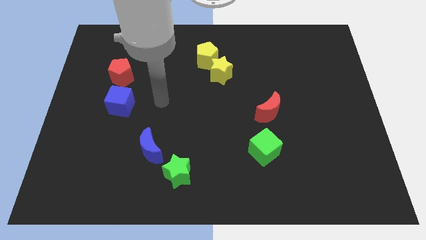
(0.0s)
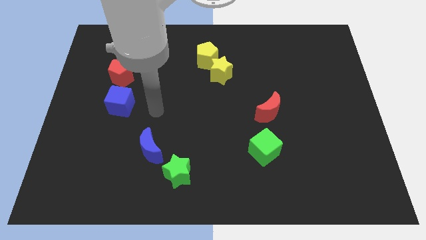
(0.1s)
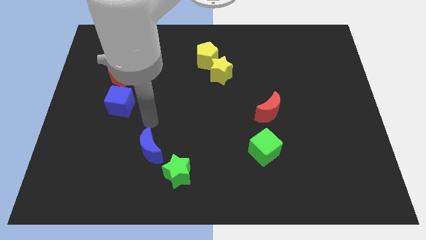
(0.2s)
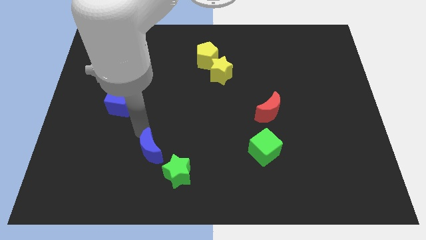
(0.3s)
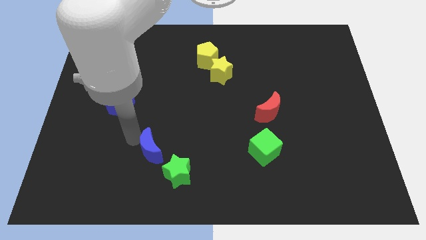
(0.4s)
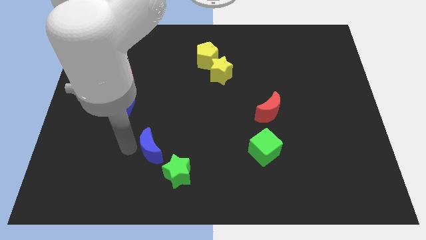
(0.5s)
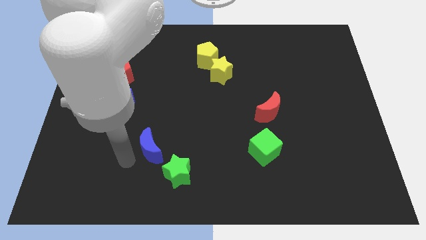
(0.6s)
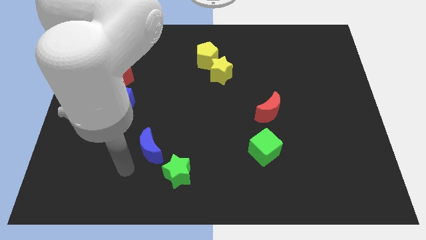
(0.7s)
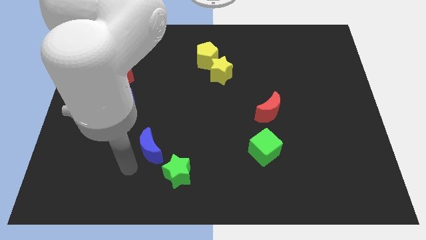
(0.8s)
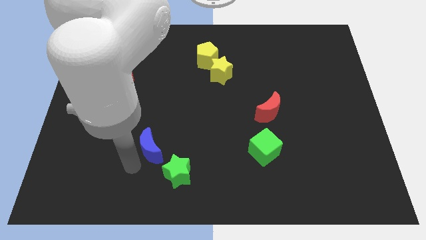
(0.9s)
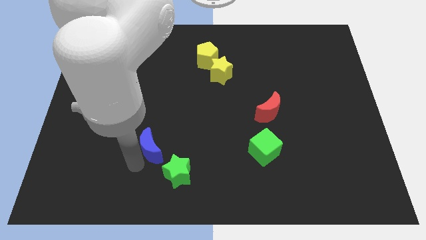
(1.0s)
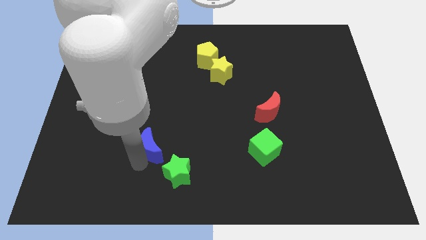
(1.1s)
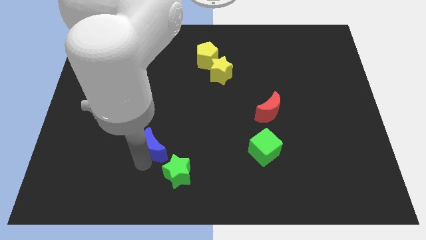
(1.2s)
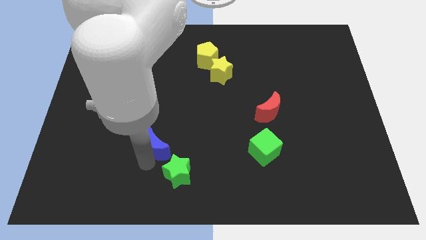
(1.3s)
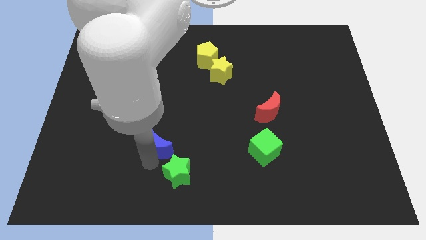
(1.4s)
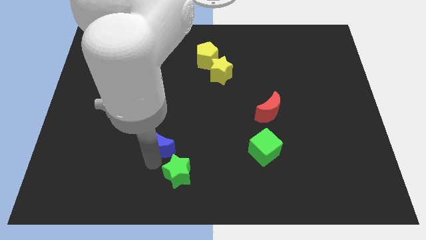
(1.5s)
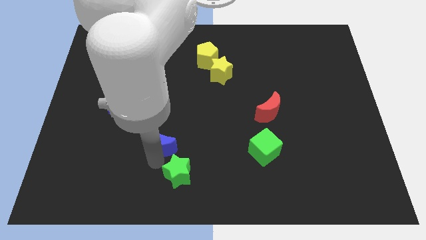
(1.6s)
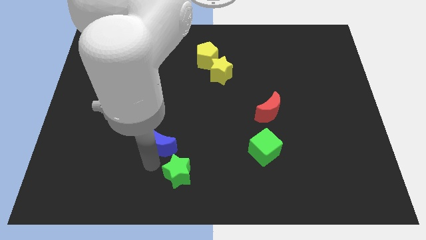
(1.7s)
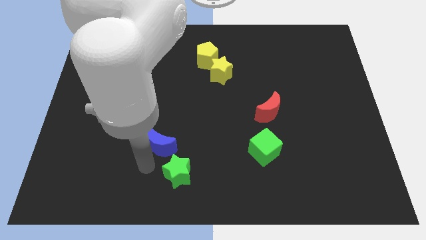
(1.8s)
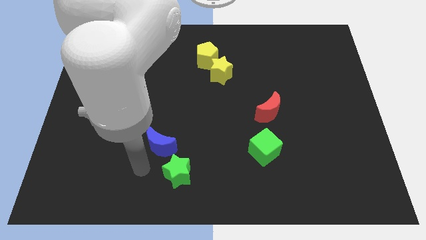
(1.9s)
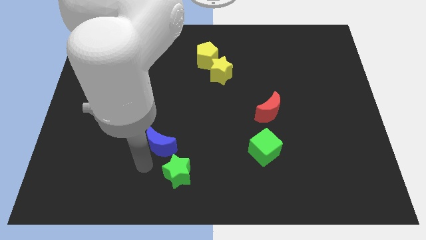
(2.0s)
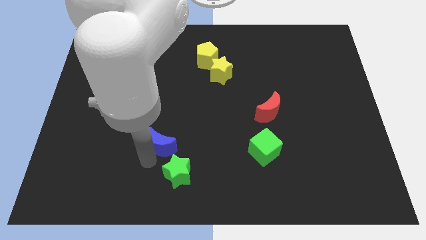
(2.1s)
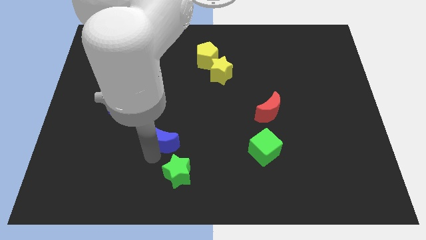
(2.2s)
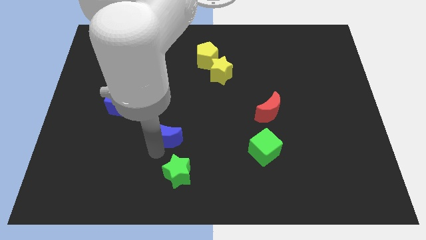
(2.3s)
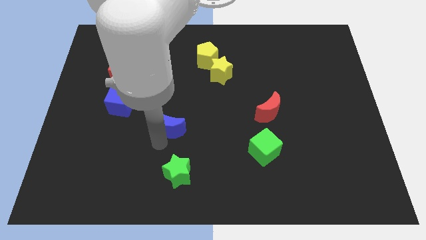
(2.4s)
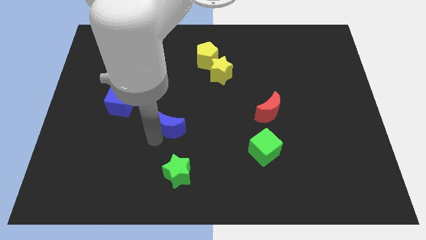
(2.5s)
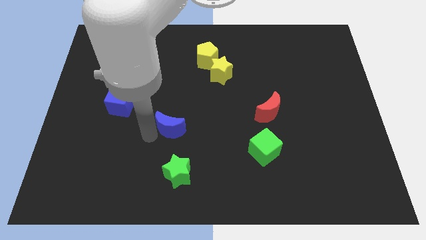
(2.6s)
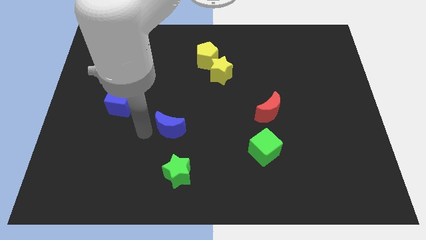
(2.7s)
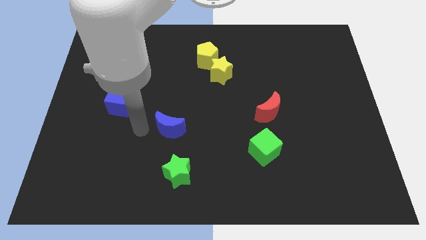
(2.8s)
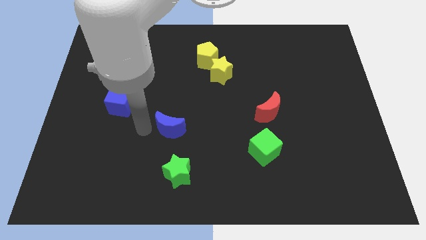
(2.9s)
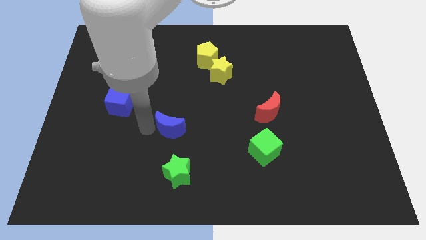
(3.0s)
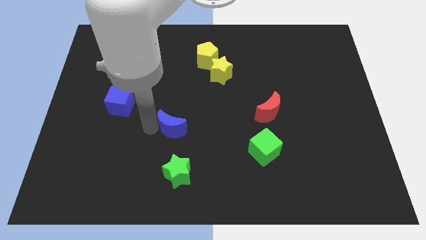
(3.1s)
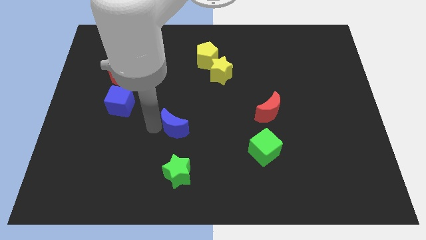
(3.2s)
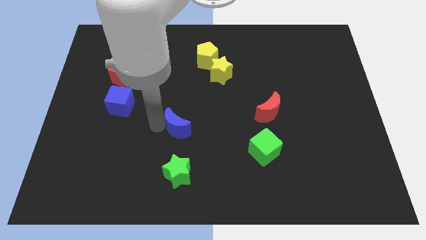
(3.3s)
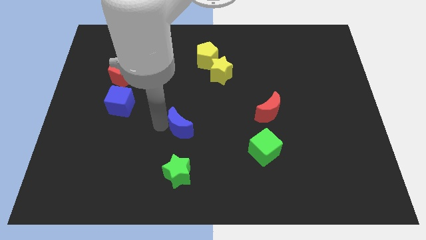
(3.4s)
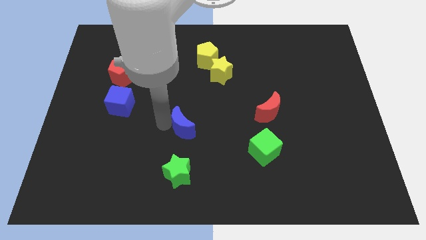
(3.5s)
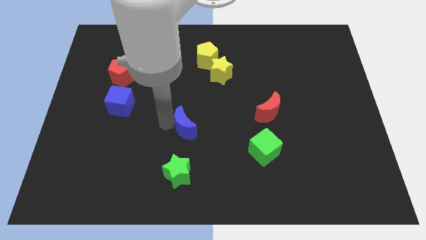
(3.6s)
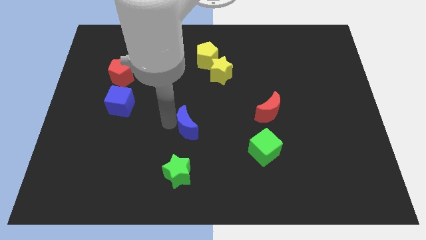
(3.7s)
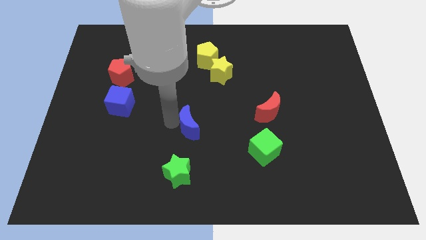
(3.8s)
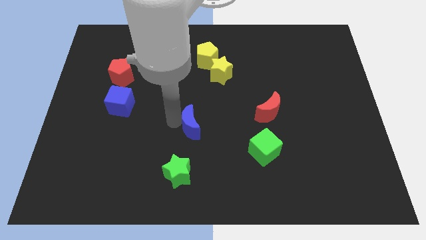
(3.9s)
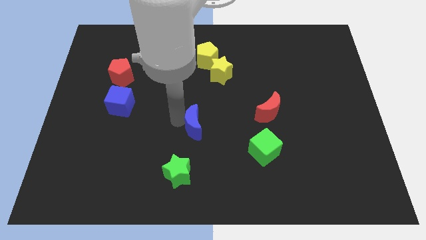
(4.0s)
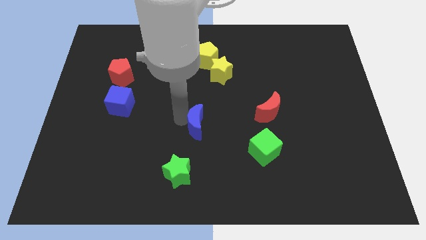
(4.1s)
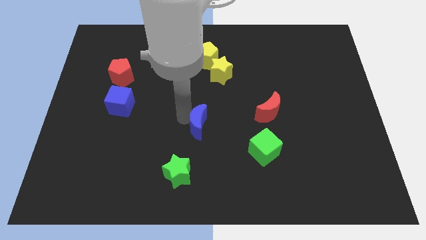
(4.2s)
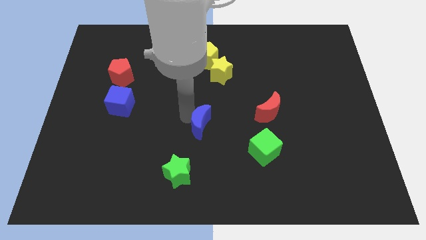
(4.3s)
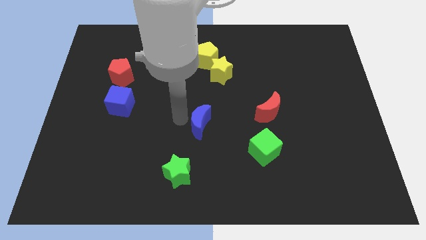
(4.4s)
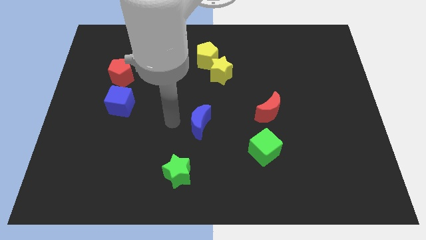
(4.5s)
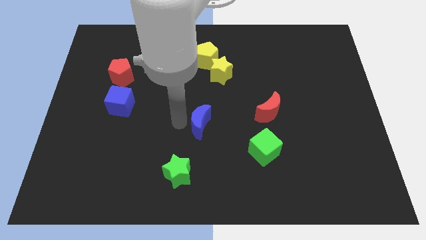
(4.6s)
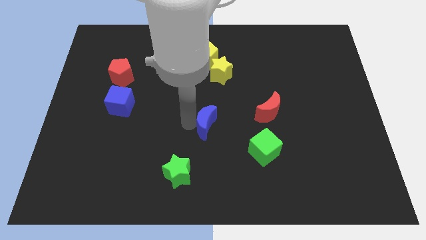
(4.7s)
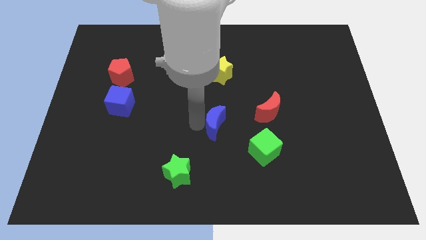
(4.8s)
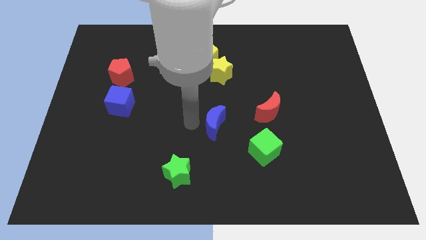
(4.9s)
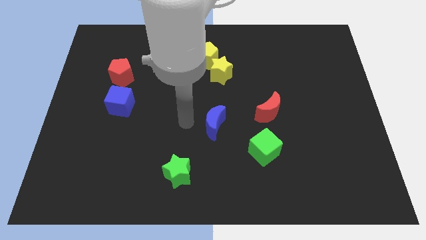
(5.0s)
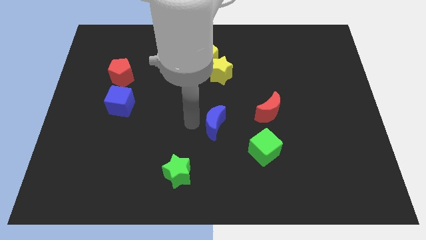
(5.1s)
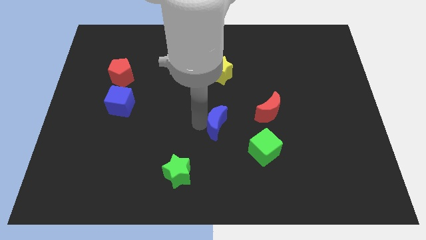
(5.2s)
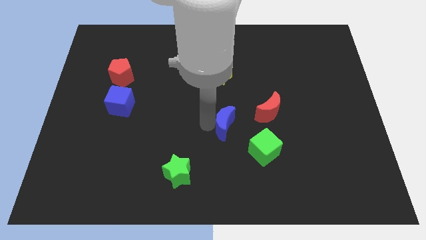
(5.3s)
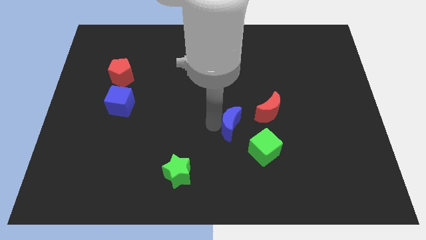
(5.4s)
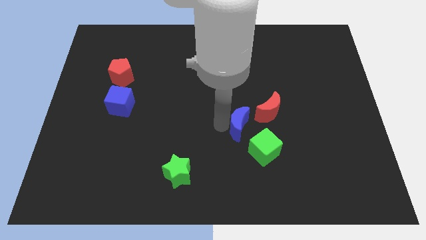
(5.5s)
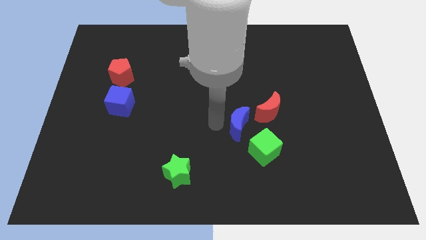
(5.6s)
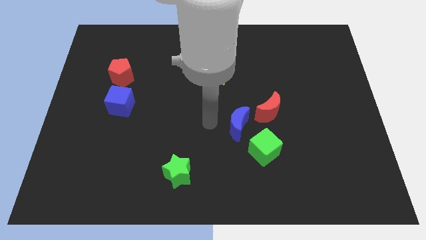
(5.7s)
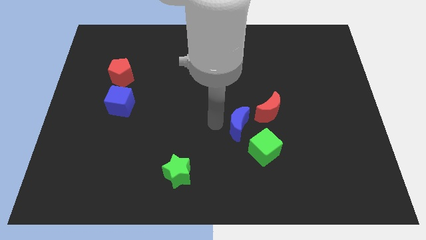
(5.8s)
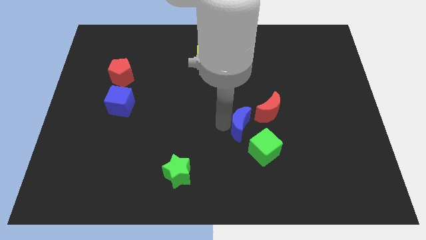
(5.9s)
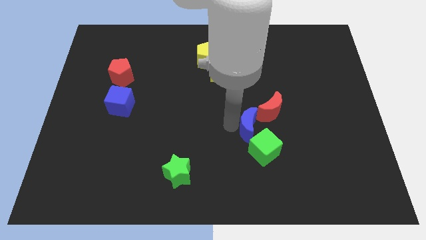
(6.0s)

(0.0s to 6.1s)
move the blue moon to the right

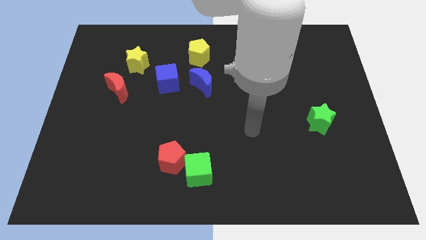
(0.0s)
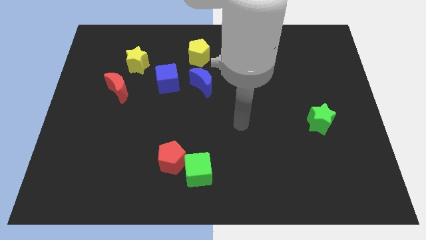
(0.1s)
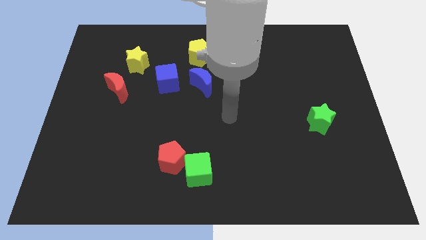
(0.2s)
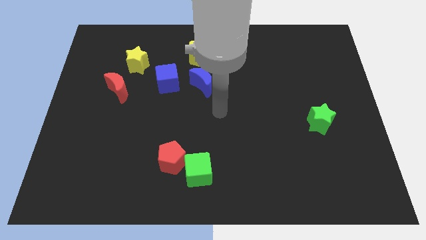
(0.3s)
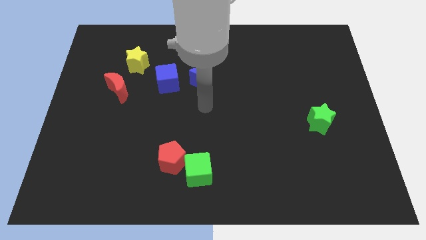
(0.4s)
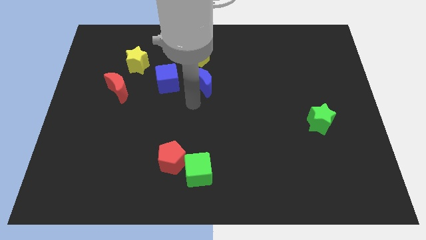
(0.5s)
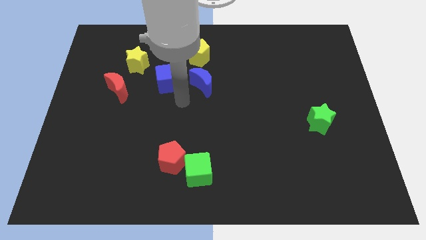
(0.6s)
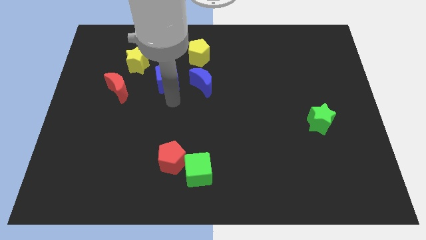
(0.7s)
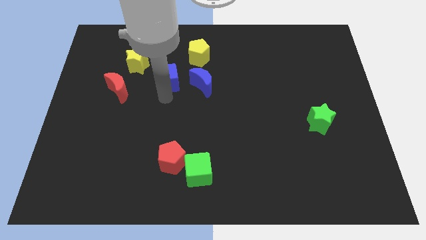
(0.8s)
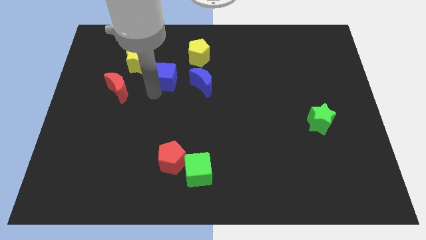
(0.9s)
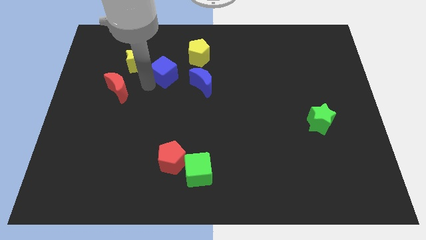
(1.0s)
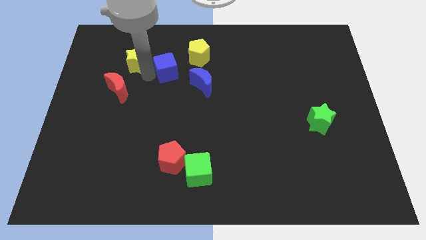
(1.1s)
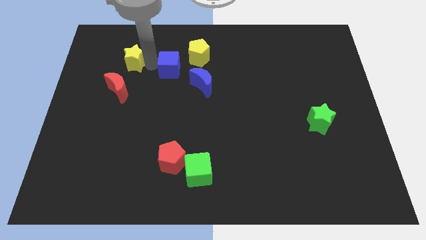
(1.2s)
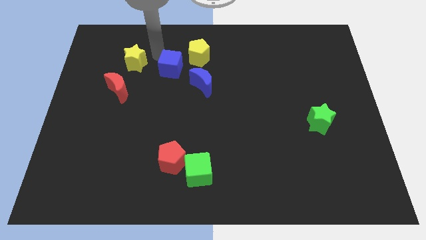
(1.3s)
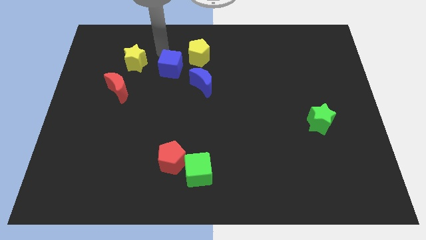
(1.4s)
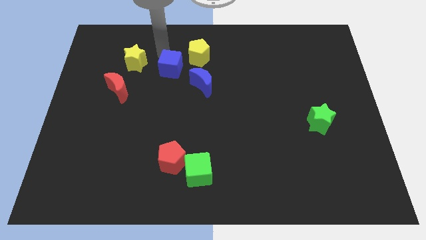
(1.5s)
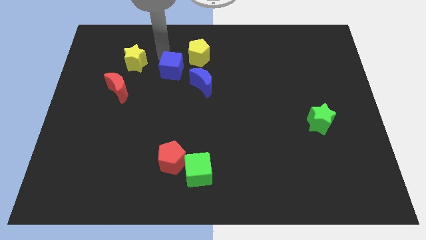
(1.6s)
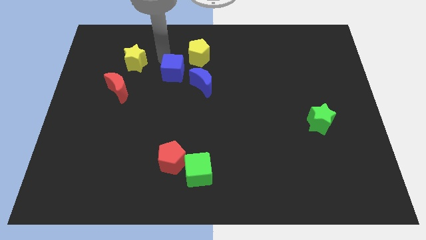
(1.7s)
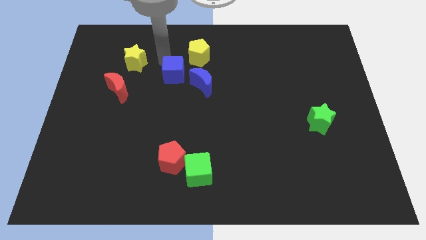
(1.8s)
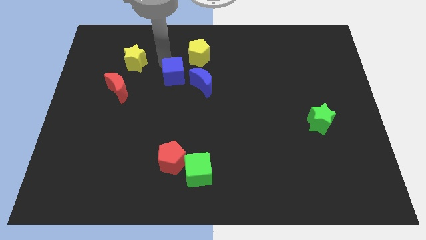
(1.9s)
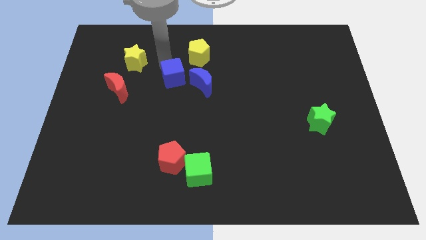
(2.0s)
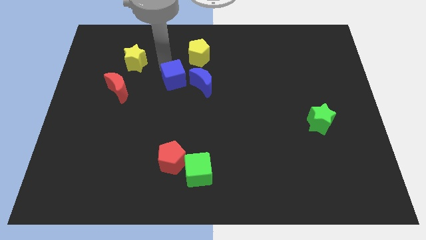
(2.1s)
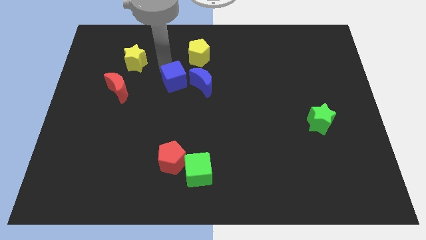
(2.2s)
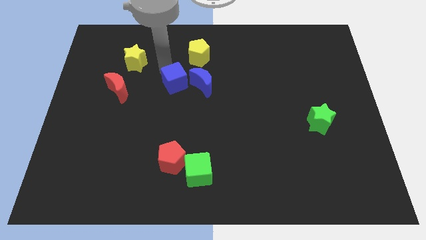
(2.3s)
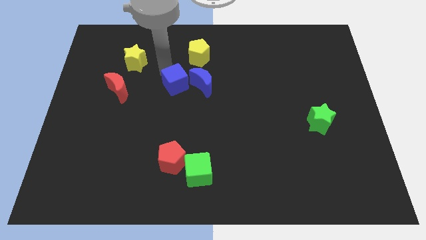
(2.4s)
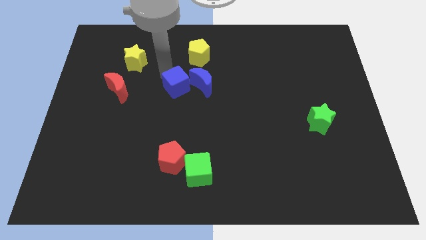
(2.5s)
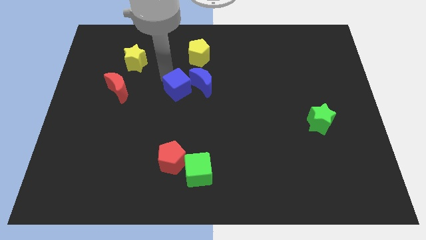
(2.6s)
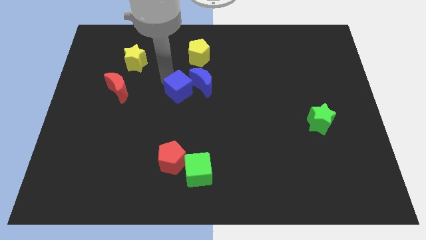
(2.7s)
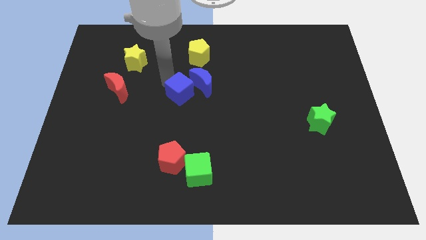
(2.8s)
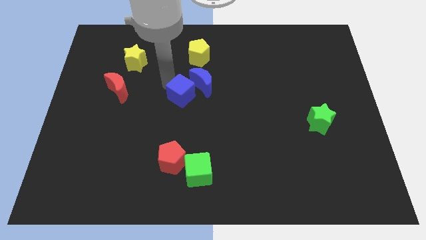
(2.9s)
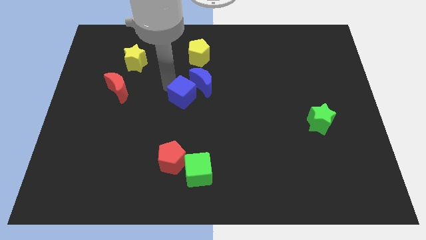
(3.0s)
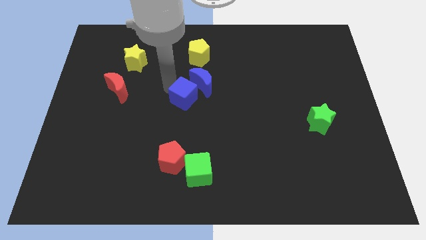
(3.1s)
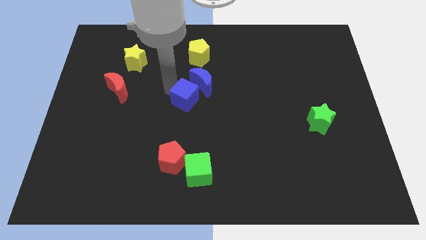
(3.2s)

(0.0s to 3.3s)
slightly move the blue cube diagonally downwards and to the right
